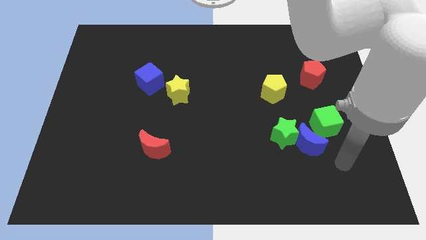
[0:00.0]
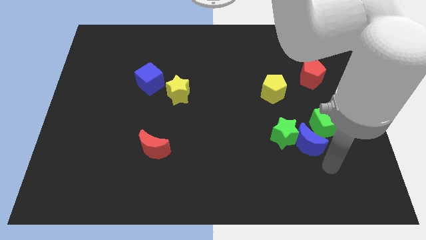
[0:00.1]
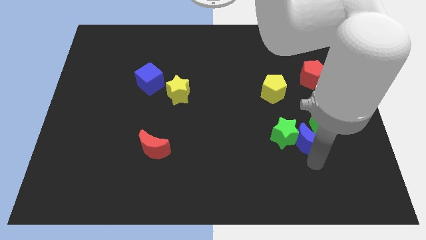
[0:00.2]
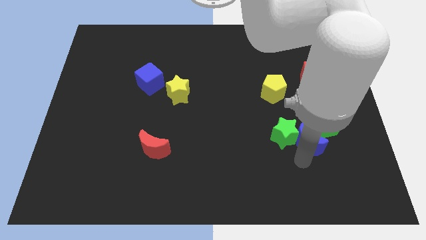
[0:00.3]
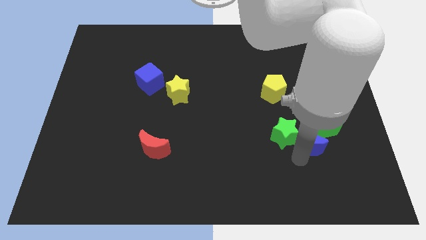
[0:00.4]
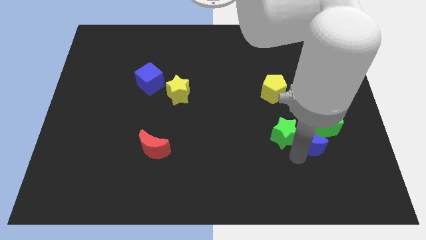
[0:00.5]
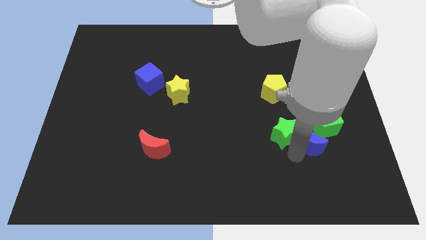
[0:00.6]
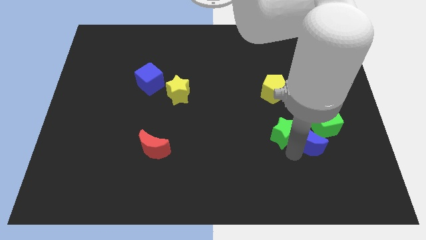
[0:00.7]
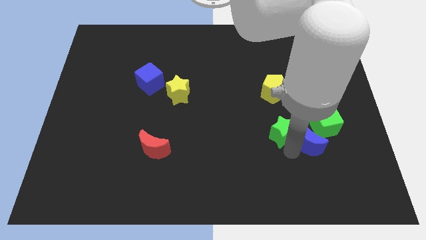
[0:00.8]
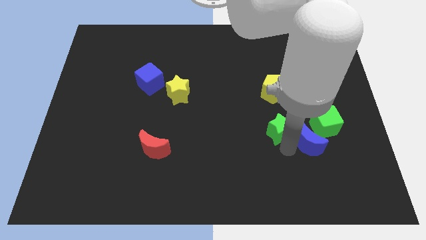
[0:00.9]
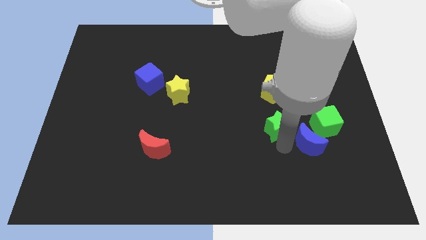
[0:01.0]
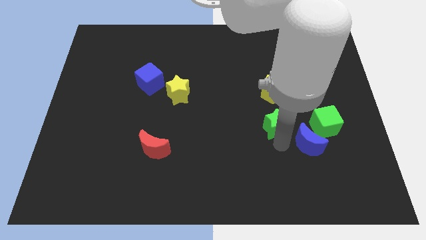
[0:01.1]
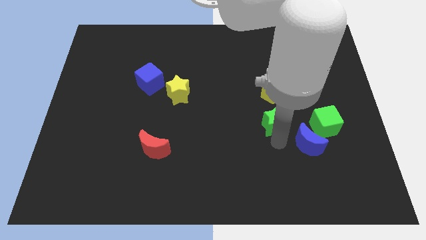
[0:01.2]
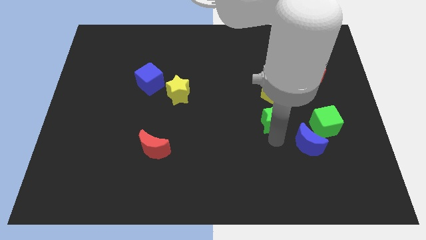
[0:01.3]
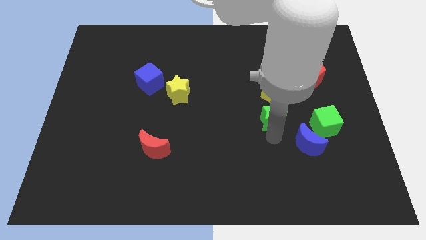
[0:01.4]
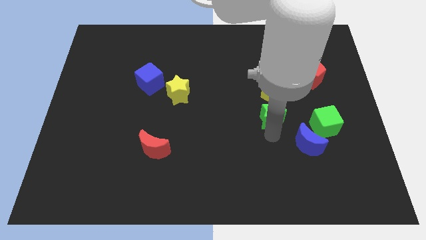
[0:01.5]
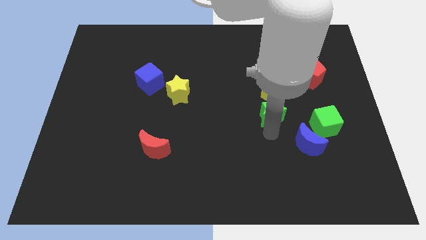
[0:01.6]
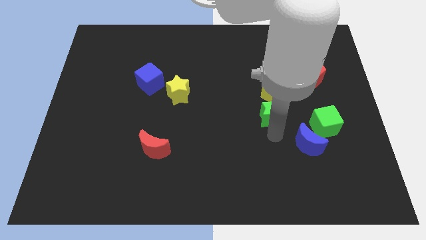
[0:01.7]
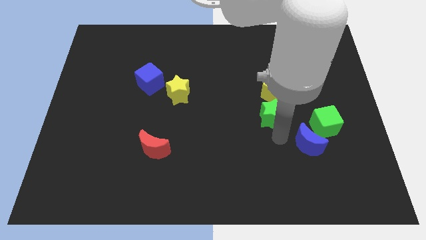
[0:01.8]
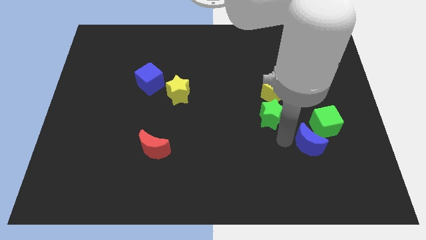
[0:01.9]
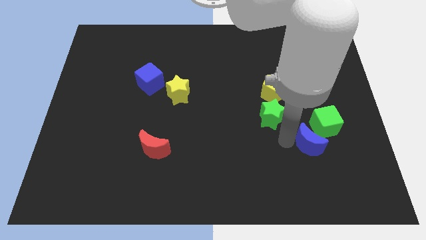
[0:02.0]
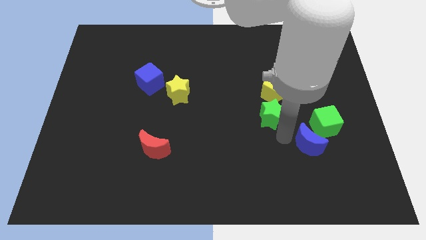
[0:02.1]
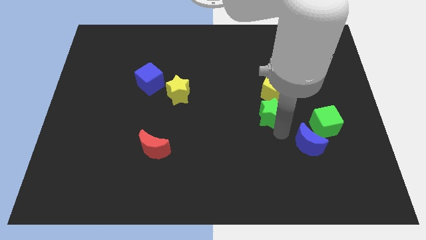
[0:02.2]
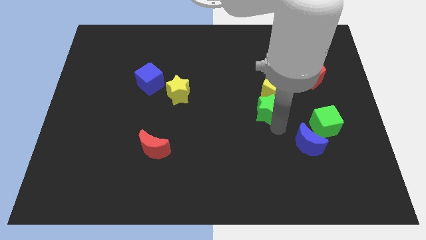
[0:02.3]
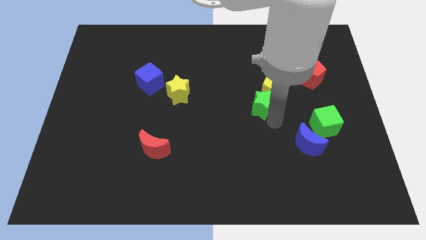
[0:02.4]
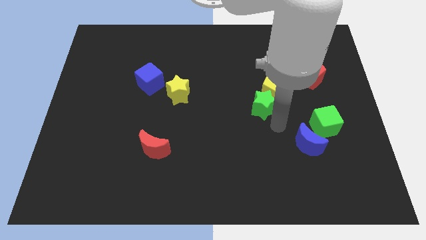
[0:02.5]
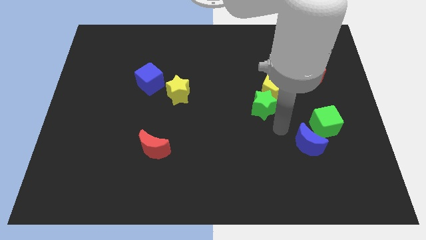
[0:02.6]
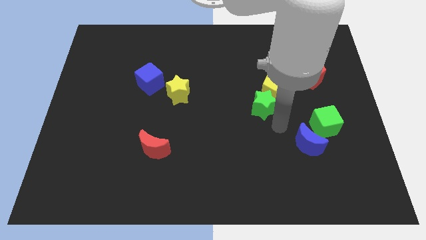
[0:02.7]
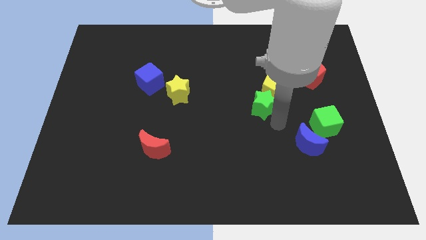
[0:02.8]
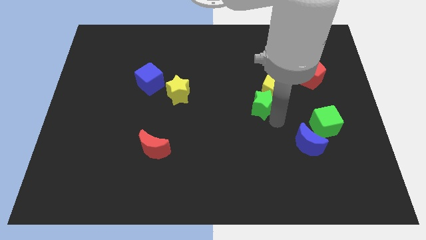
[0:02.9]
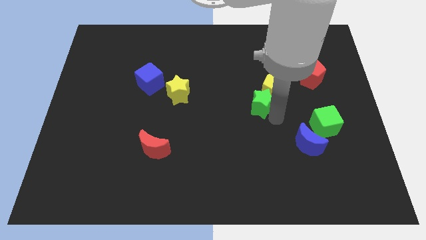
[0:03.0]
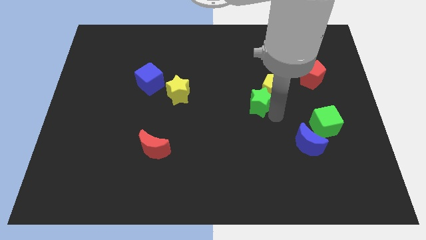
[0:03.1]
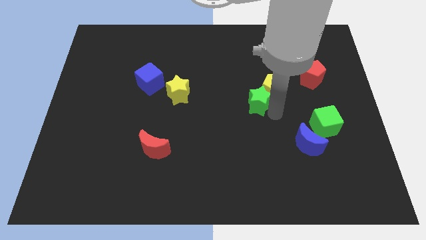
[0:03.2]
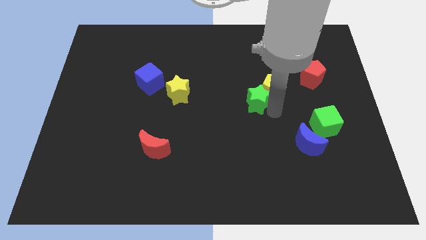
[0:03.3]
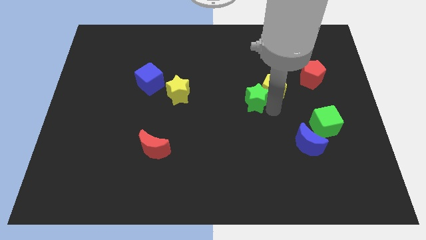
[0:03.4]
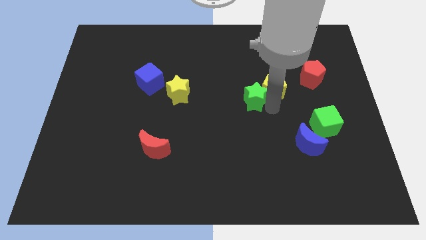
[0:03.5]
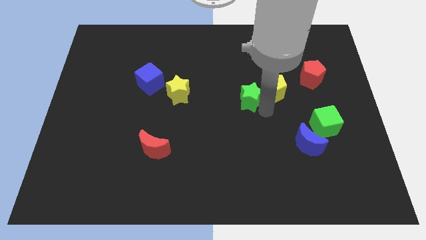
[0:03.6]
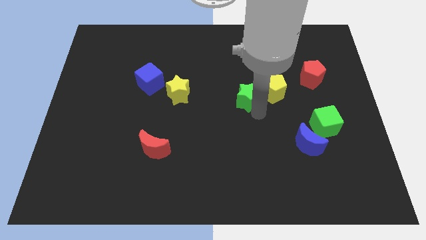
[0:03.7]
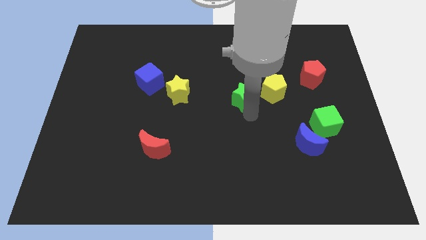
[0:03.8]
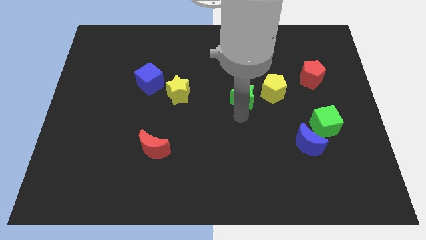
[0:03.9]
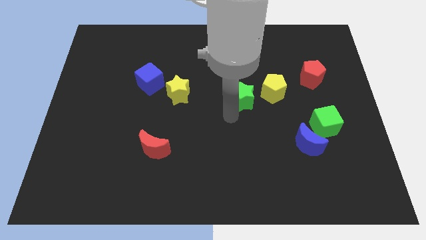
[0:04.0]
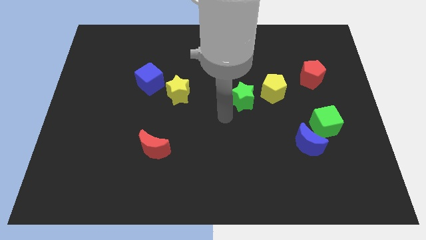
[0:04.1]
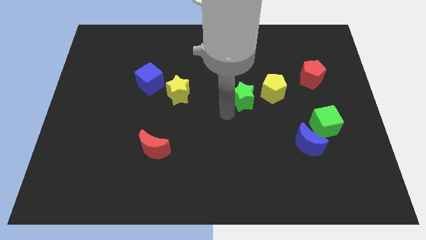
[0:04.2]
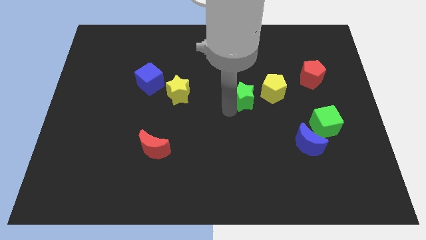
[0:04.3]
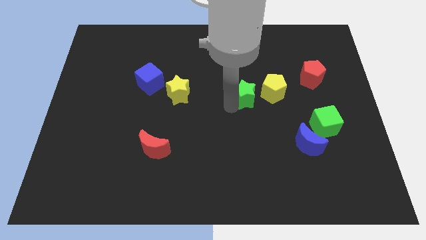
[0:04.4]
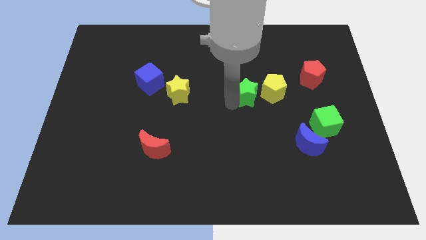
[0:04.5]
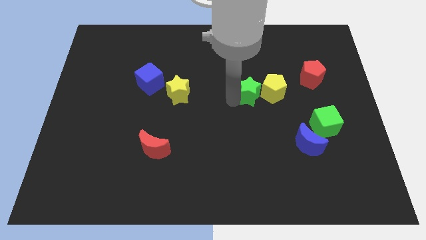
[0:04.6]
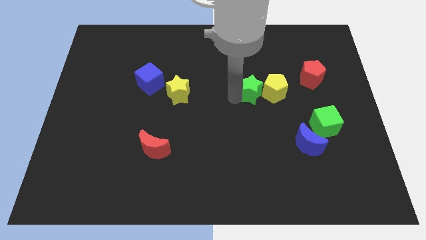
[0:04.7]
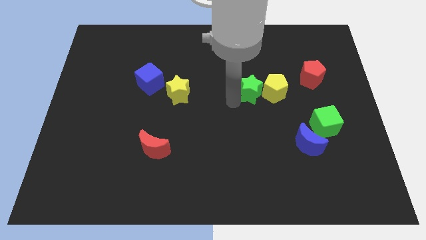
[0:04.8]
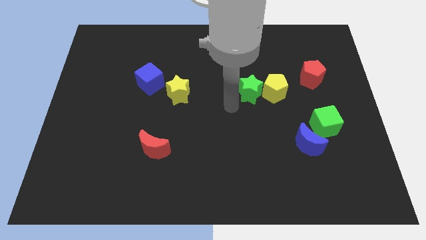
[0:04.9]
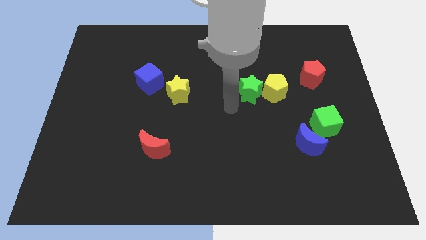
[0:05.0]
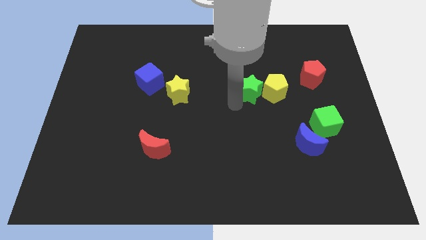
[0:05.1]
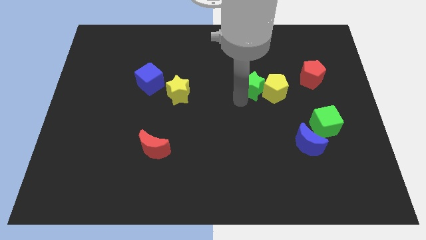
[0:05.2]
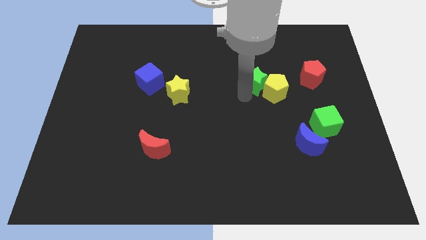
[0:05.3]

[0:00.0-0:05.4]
put the green star to the left side of the red pentagon

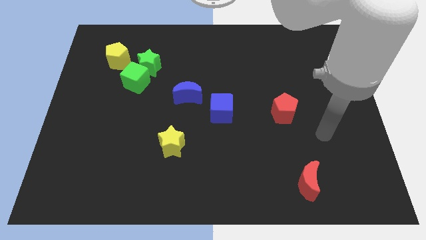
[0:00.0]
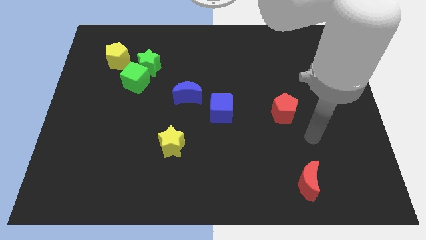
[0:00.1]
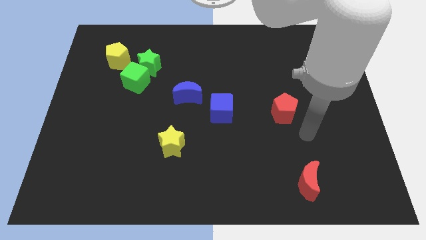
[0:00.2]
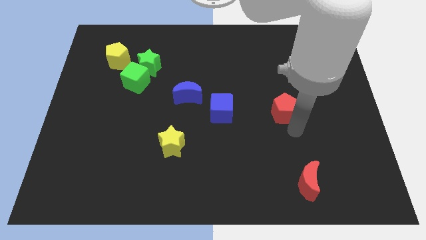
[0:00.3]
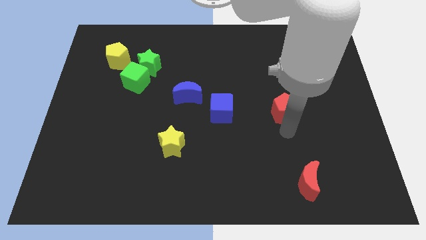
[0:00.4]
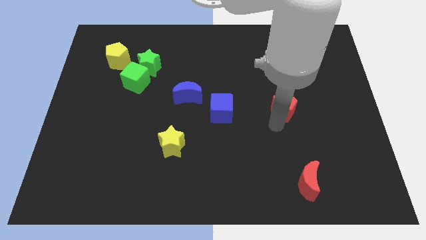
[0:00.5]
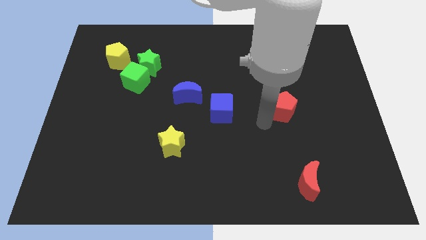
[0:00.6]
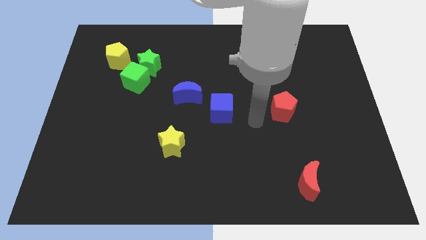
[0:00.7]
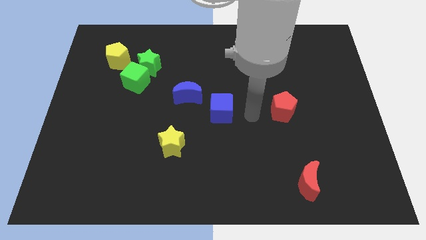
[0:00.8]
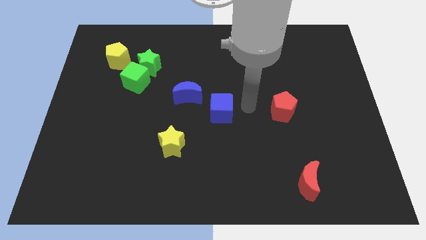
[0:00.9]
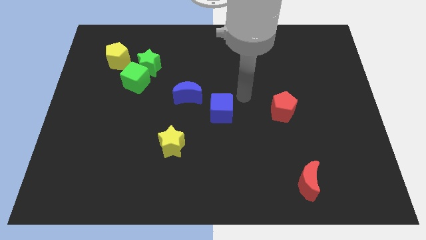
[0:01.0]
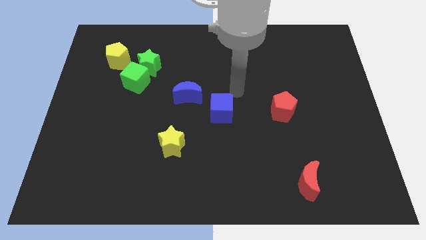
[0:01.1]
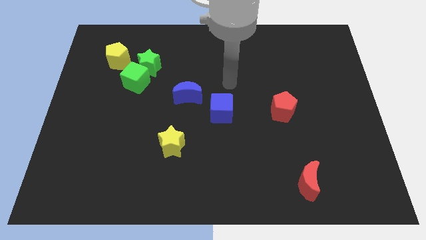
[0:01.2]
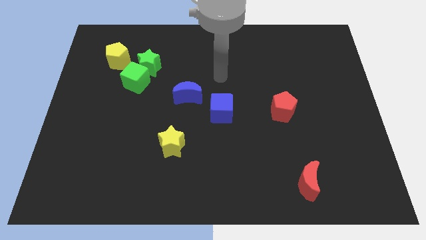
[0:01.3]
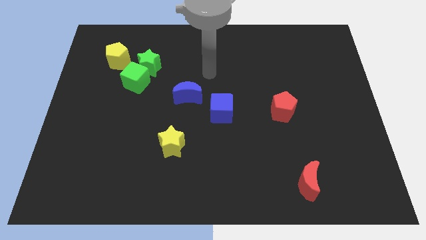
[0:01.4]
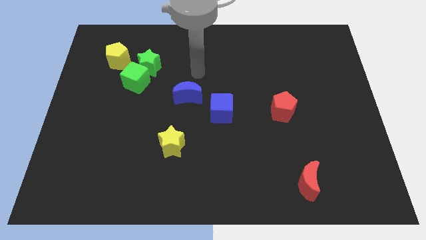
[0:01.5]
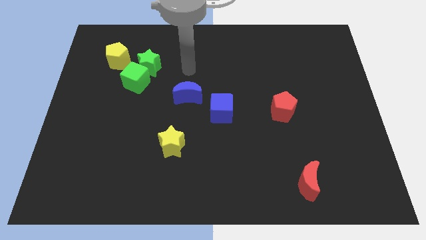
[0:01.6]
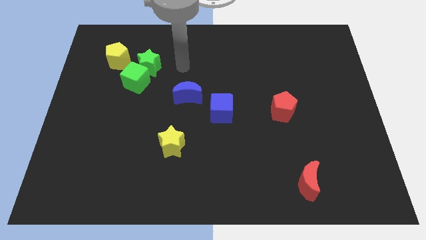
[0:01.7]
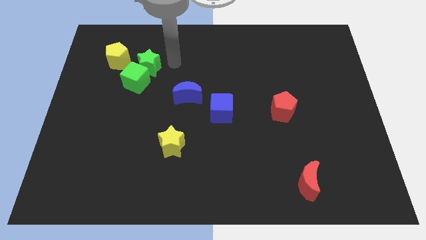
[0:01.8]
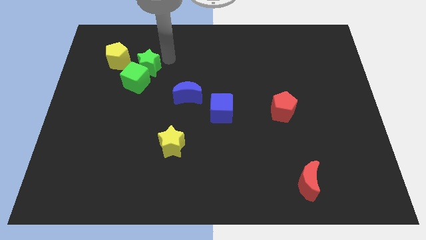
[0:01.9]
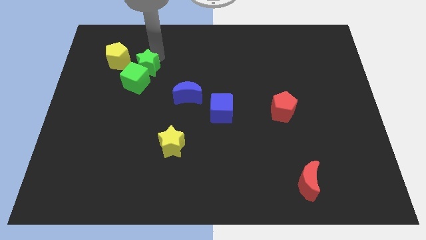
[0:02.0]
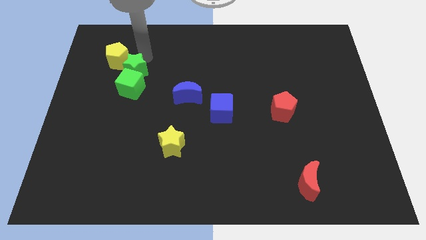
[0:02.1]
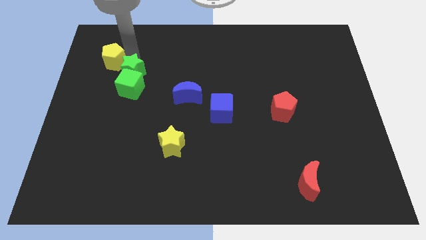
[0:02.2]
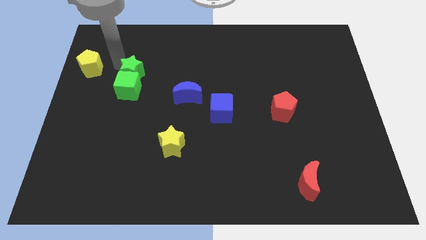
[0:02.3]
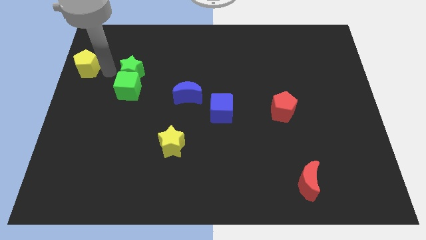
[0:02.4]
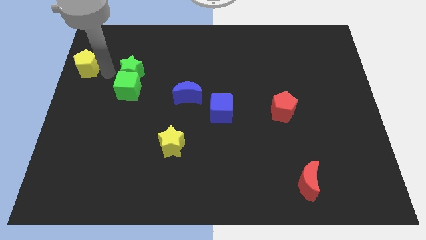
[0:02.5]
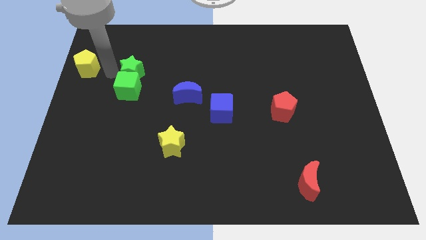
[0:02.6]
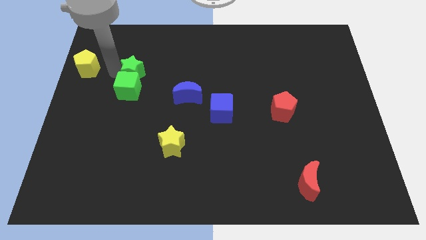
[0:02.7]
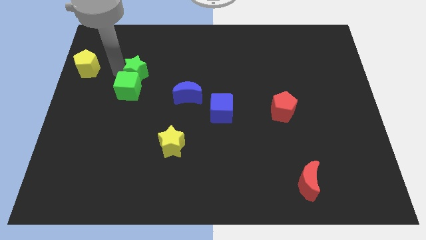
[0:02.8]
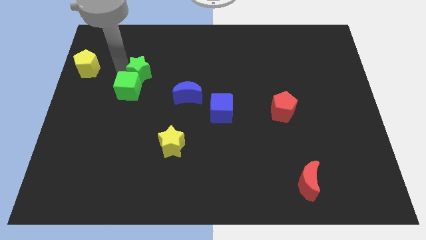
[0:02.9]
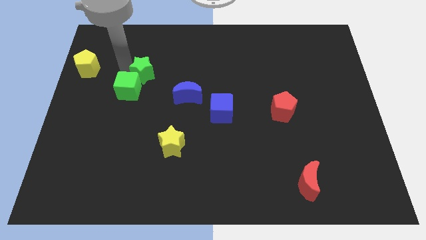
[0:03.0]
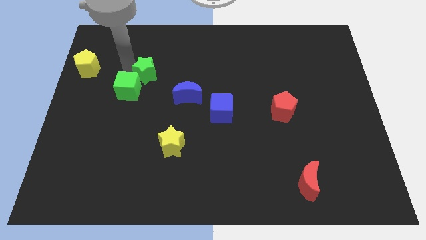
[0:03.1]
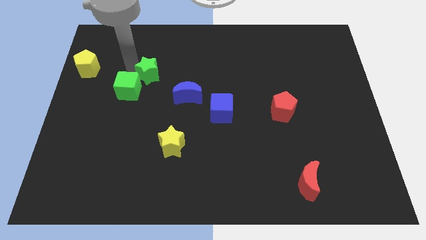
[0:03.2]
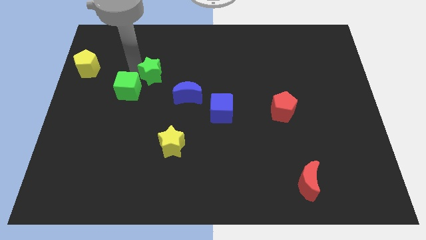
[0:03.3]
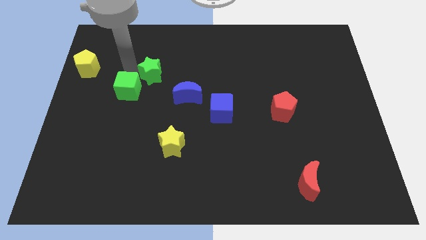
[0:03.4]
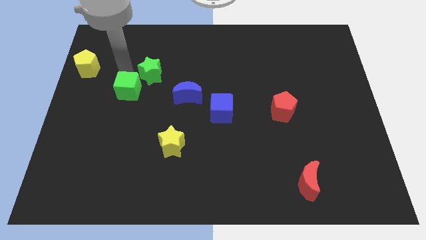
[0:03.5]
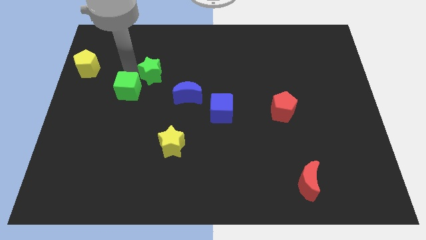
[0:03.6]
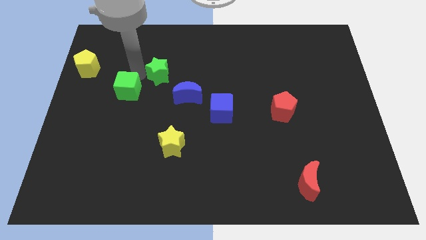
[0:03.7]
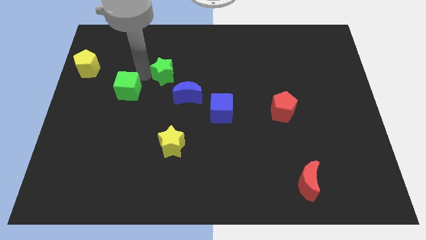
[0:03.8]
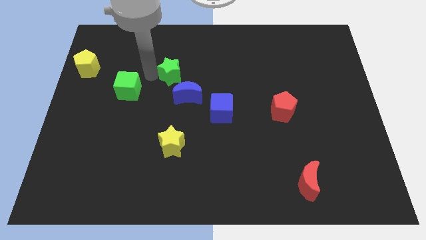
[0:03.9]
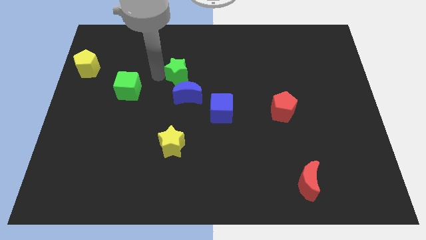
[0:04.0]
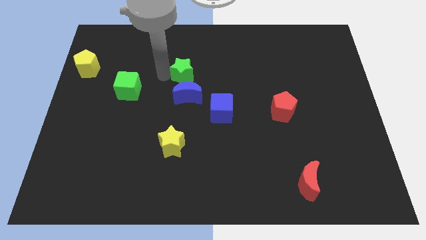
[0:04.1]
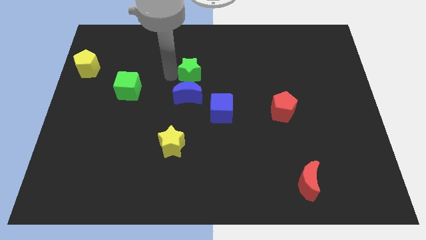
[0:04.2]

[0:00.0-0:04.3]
move the green star to the top right of the blue moon
